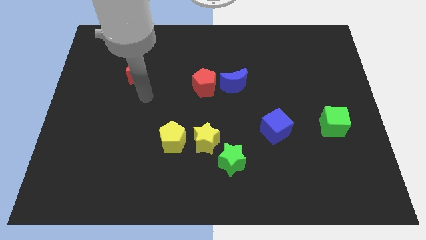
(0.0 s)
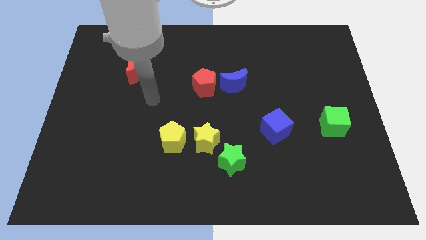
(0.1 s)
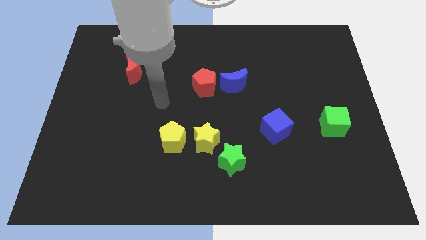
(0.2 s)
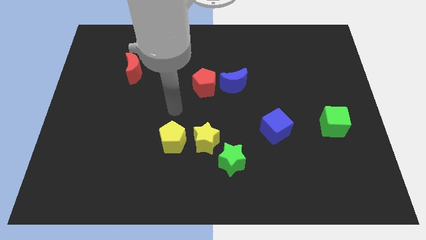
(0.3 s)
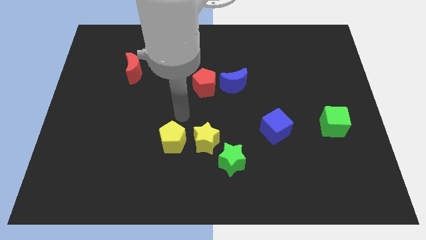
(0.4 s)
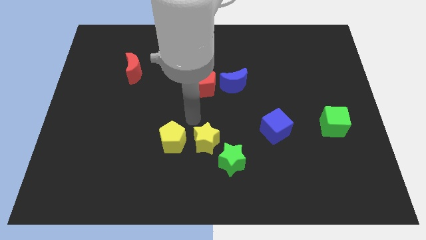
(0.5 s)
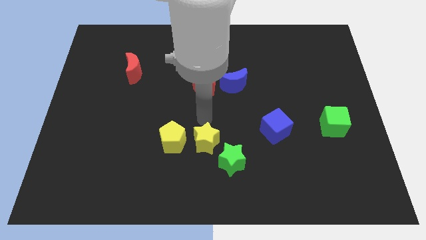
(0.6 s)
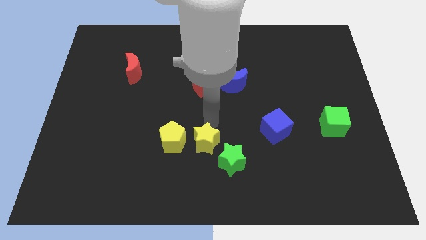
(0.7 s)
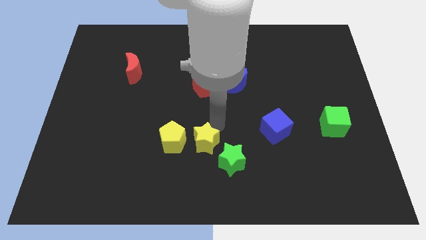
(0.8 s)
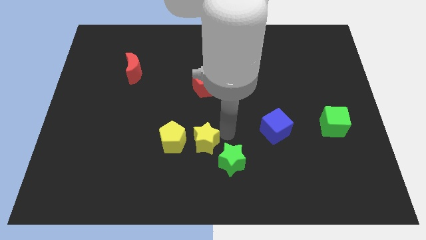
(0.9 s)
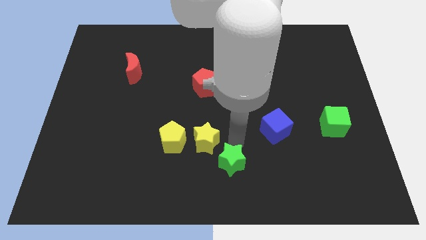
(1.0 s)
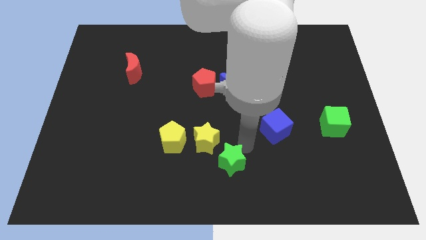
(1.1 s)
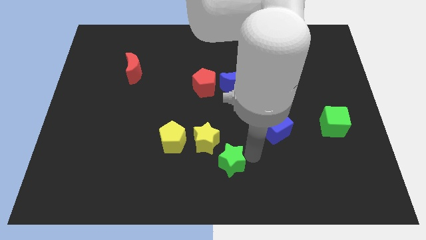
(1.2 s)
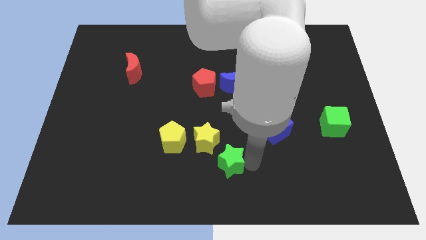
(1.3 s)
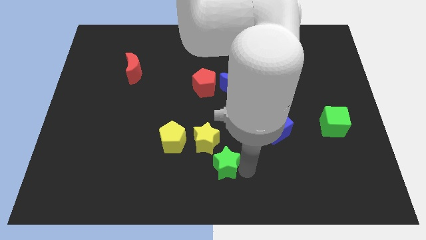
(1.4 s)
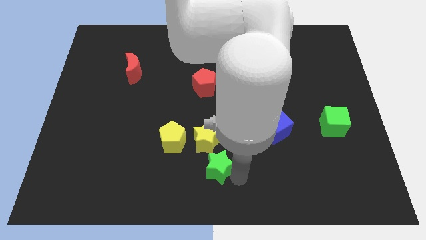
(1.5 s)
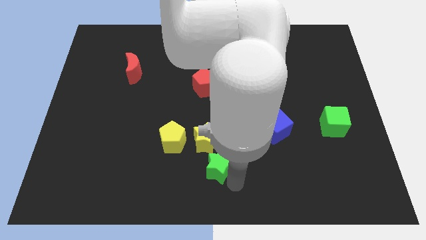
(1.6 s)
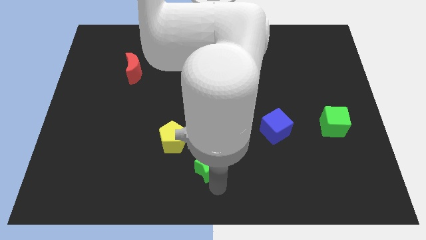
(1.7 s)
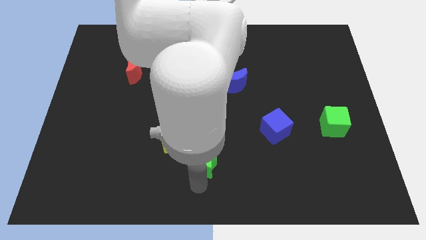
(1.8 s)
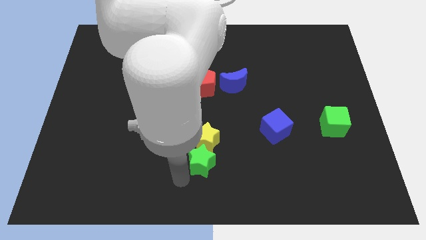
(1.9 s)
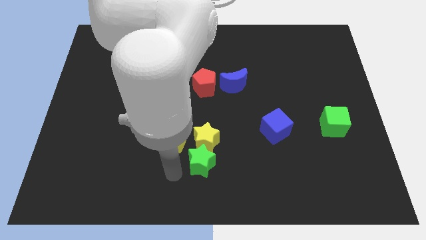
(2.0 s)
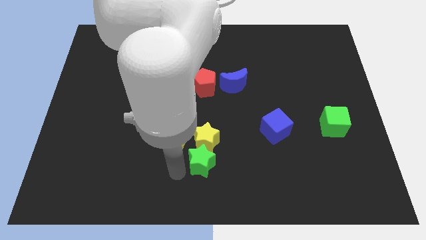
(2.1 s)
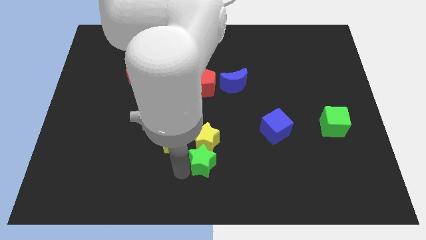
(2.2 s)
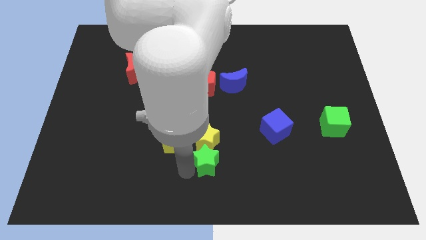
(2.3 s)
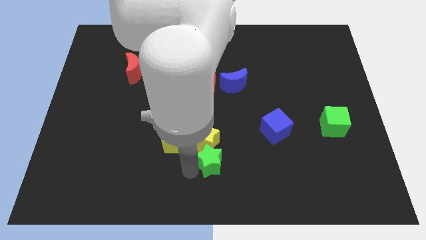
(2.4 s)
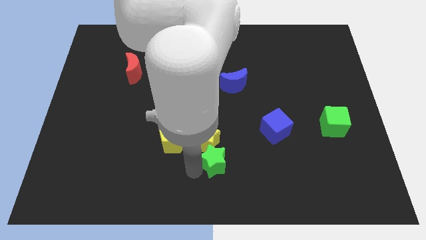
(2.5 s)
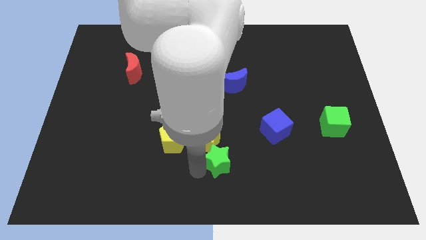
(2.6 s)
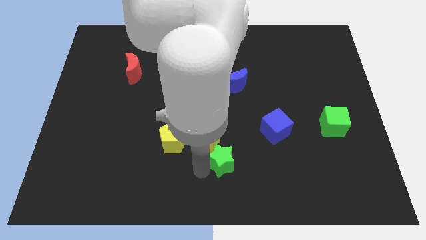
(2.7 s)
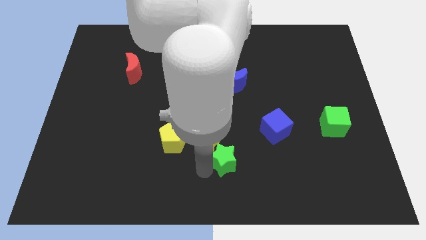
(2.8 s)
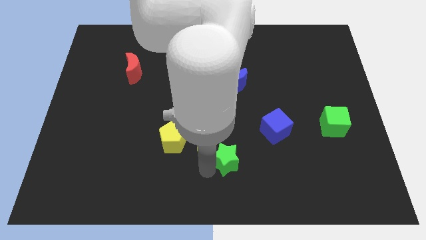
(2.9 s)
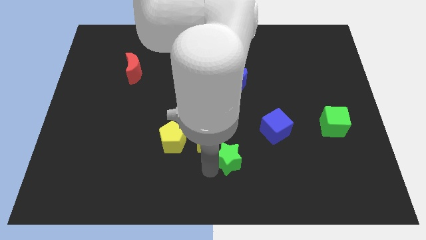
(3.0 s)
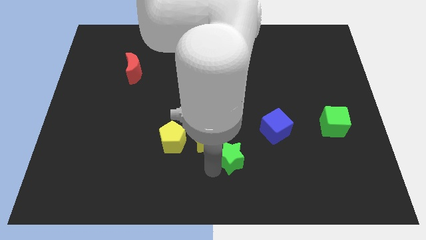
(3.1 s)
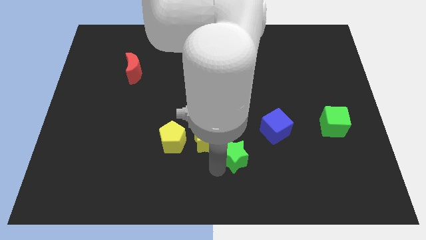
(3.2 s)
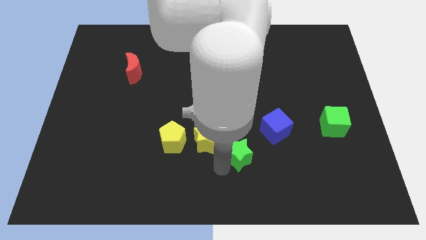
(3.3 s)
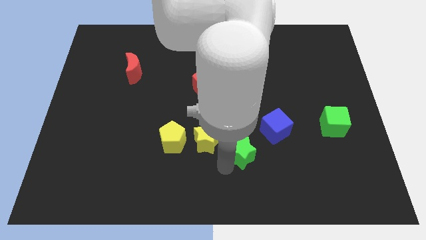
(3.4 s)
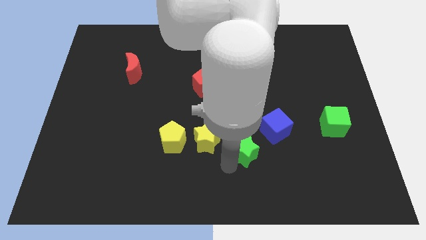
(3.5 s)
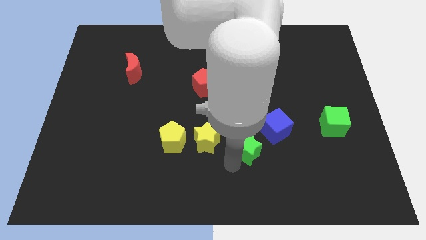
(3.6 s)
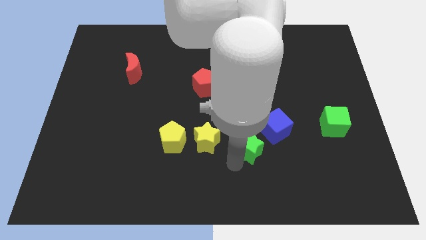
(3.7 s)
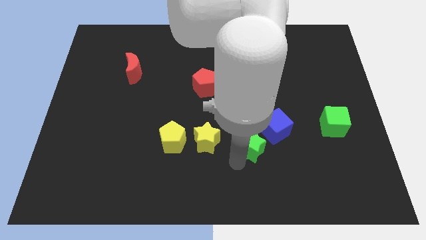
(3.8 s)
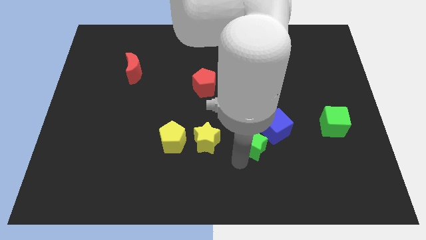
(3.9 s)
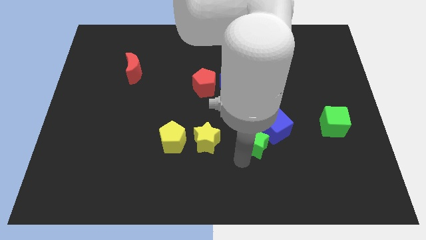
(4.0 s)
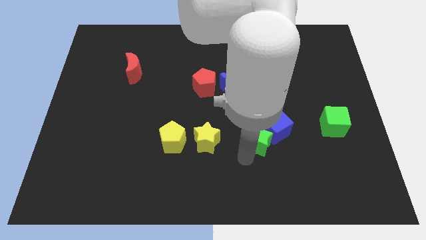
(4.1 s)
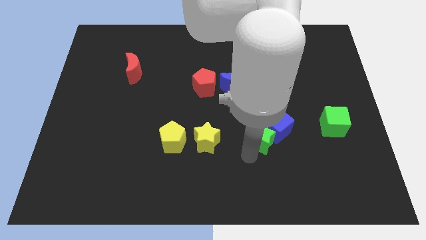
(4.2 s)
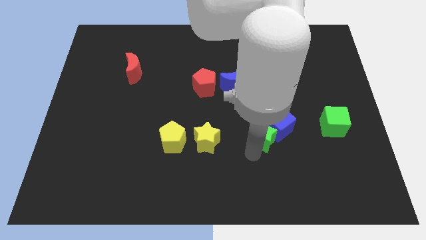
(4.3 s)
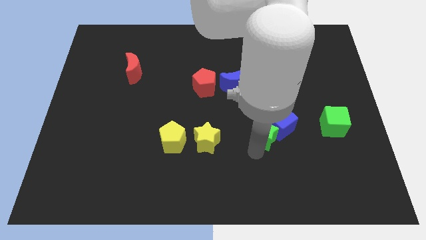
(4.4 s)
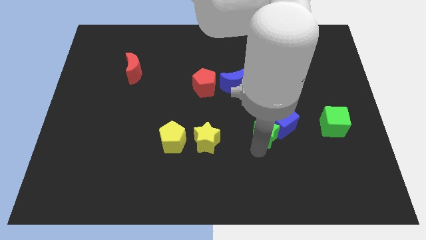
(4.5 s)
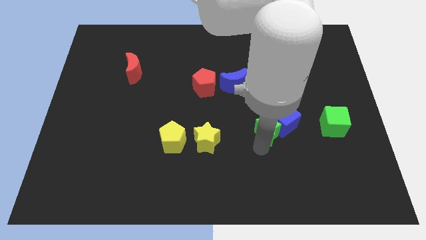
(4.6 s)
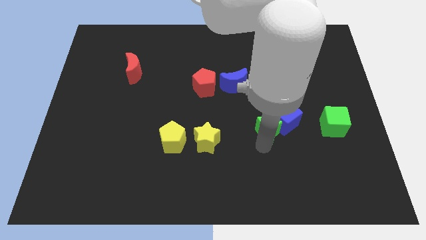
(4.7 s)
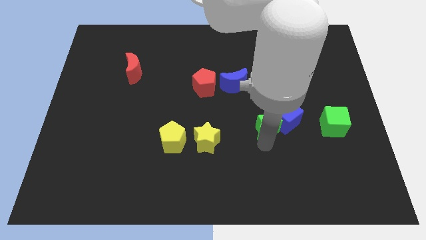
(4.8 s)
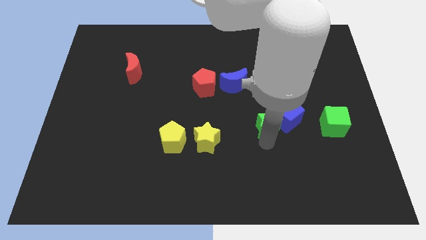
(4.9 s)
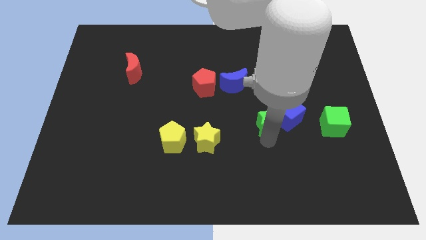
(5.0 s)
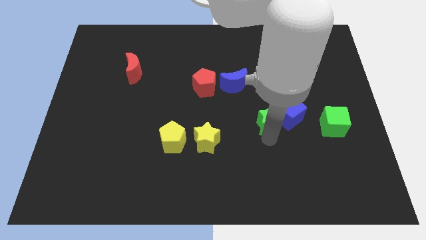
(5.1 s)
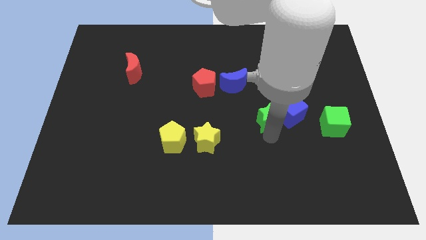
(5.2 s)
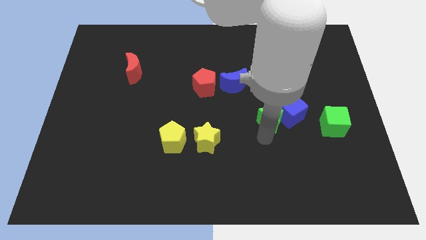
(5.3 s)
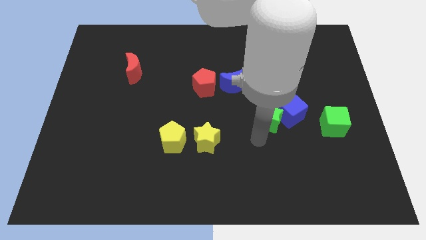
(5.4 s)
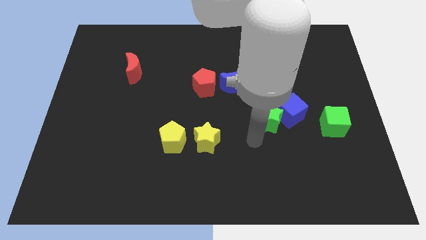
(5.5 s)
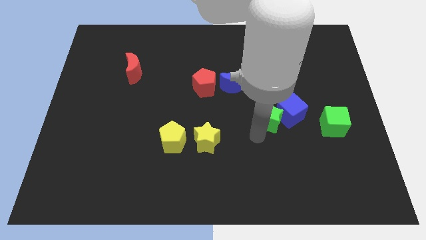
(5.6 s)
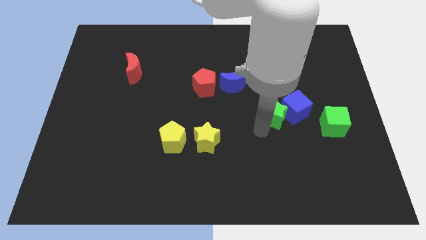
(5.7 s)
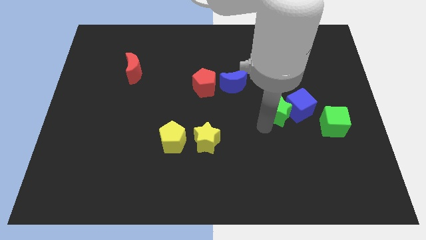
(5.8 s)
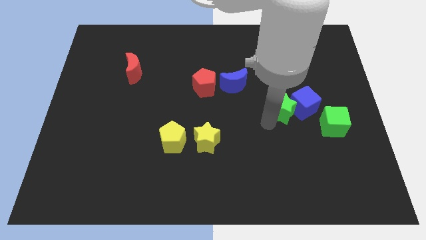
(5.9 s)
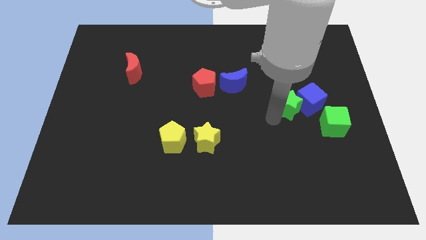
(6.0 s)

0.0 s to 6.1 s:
push the green star upwards and right diagonally

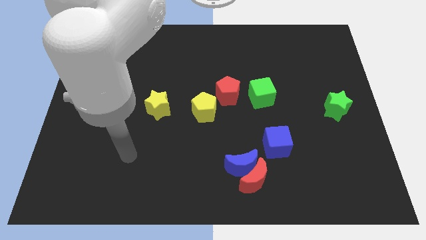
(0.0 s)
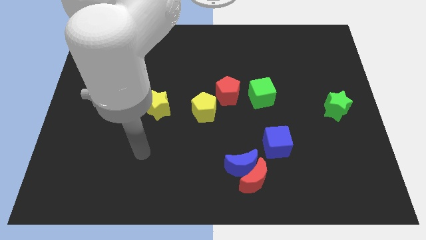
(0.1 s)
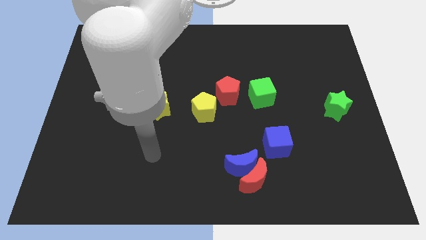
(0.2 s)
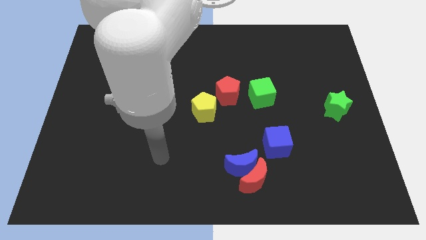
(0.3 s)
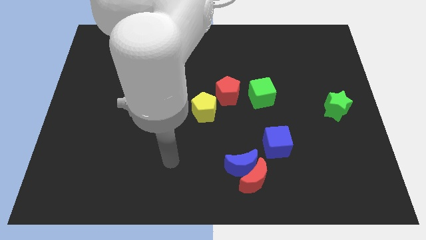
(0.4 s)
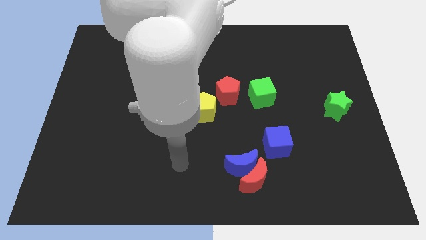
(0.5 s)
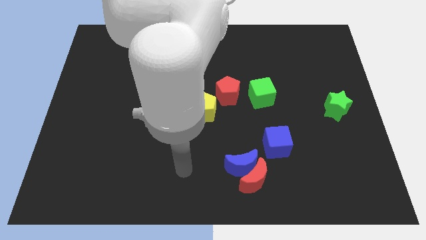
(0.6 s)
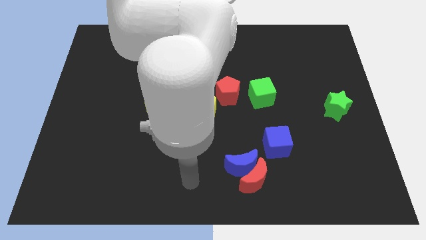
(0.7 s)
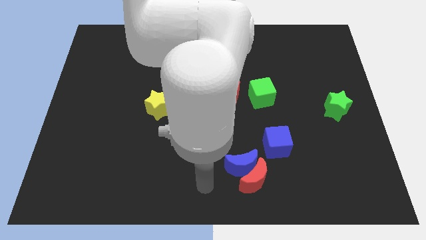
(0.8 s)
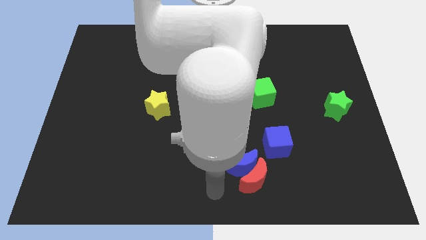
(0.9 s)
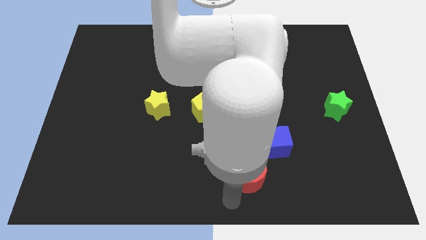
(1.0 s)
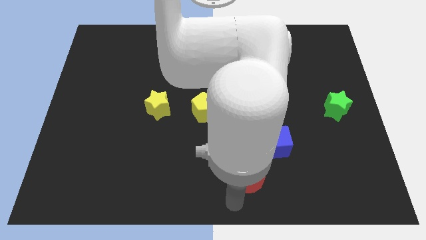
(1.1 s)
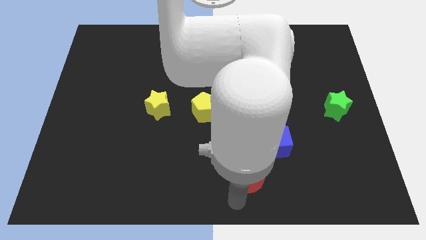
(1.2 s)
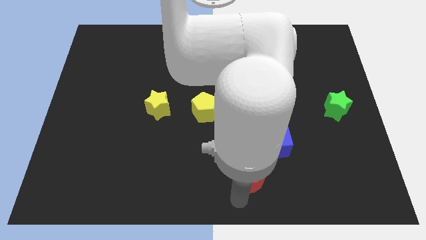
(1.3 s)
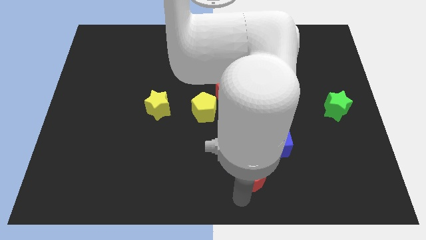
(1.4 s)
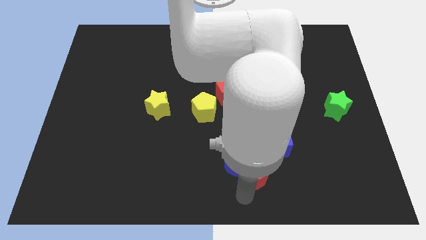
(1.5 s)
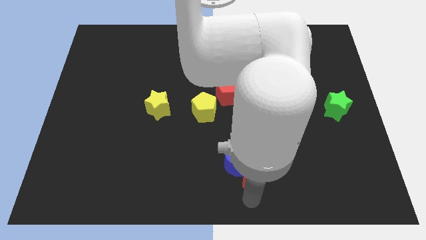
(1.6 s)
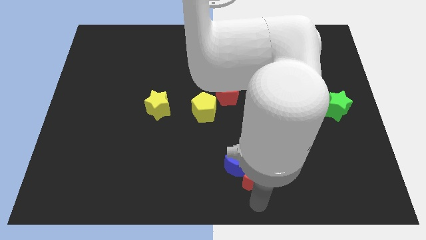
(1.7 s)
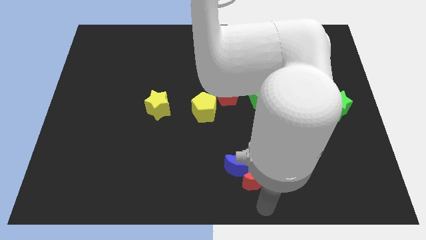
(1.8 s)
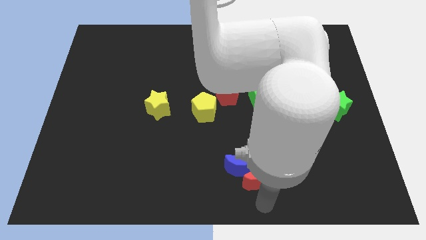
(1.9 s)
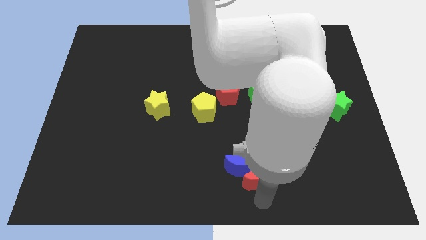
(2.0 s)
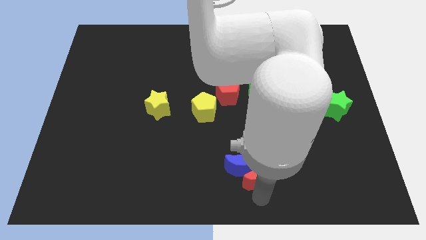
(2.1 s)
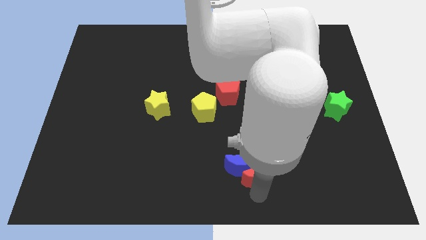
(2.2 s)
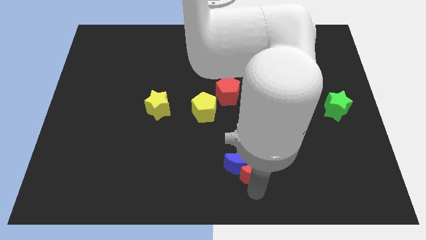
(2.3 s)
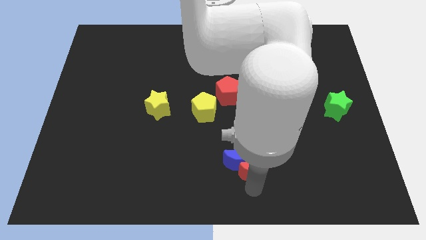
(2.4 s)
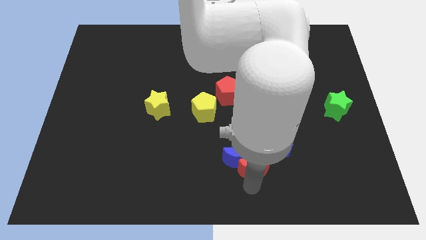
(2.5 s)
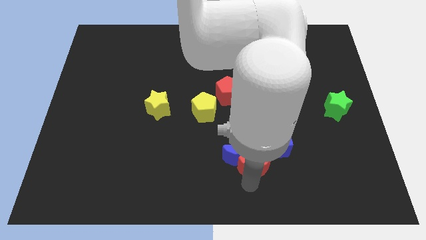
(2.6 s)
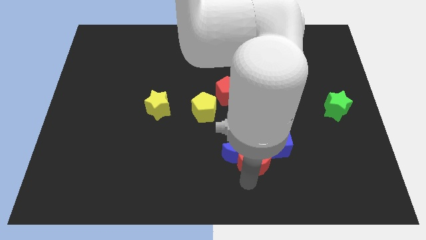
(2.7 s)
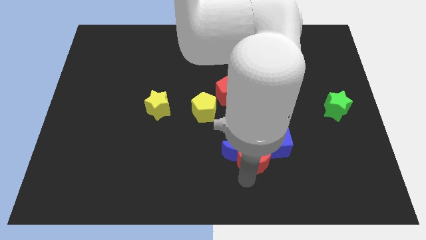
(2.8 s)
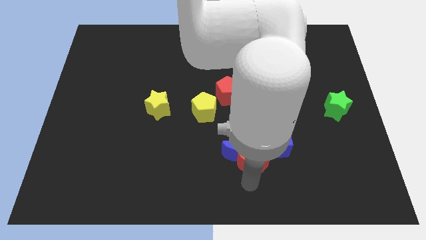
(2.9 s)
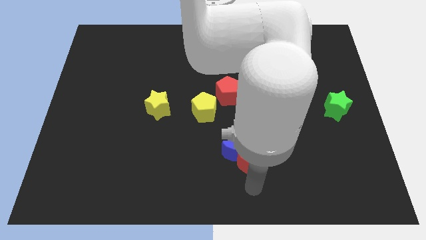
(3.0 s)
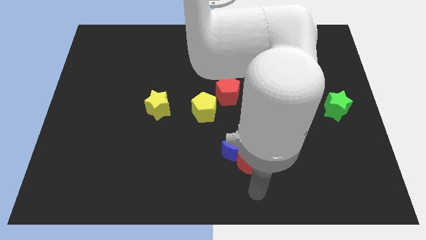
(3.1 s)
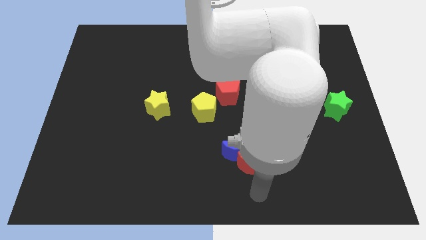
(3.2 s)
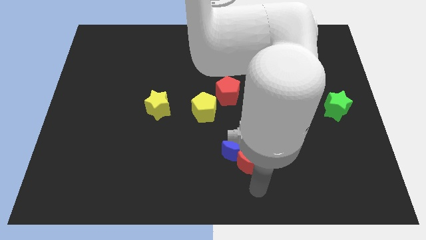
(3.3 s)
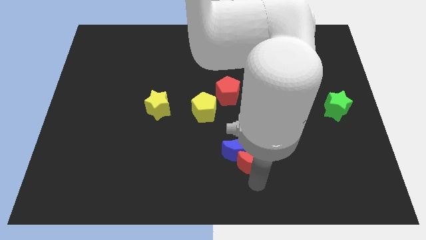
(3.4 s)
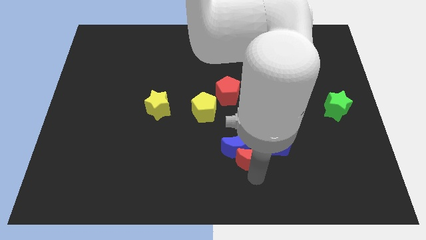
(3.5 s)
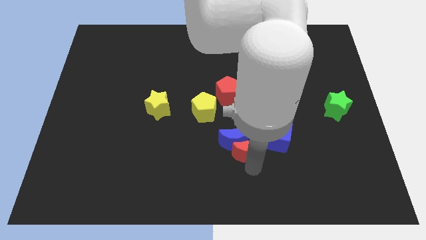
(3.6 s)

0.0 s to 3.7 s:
push the red moon a little bit up
